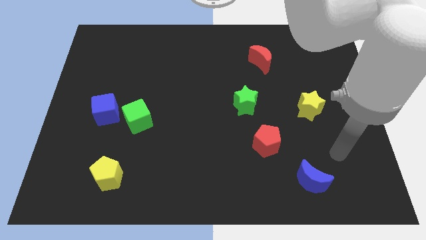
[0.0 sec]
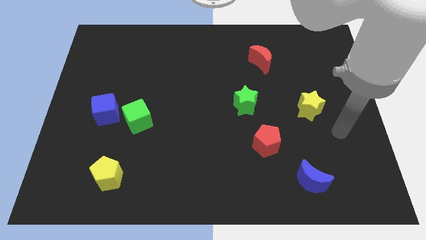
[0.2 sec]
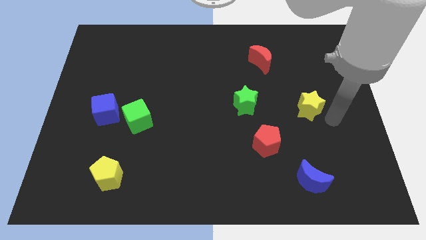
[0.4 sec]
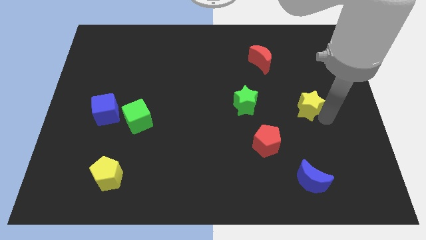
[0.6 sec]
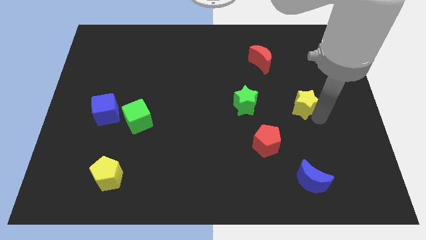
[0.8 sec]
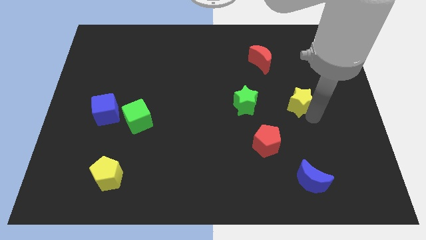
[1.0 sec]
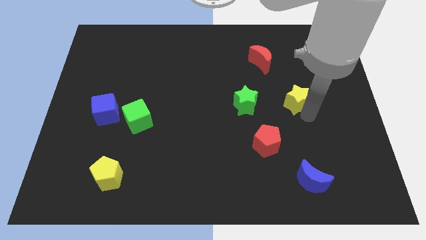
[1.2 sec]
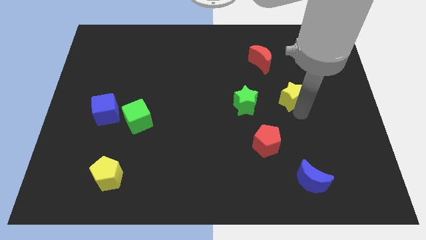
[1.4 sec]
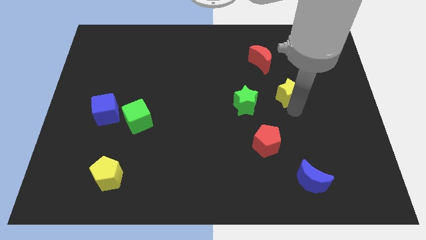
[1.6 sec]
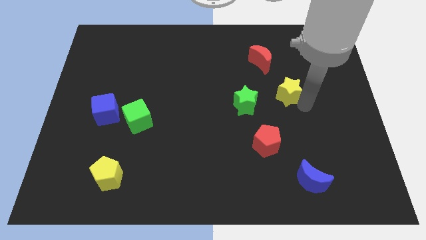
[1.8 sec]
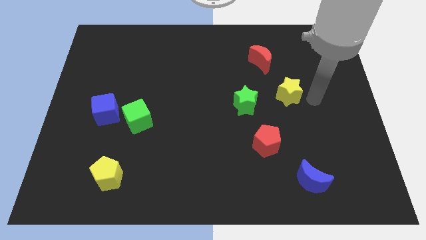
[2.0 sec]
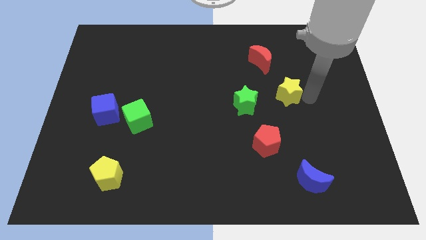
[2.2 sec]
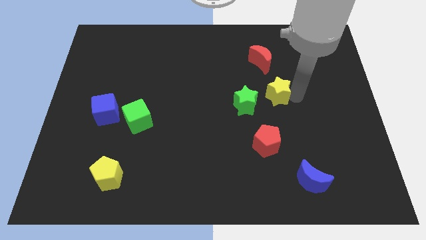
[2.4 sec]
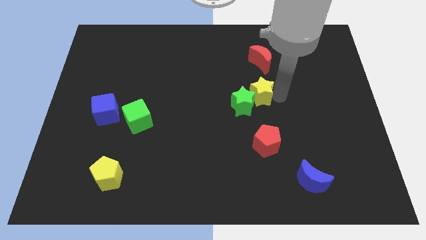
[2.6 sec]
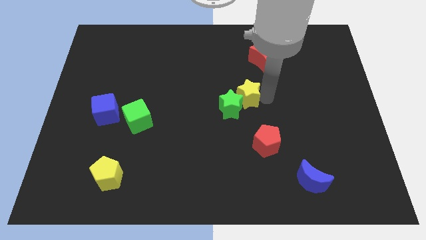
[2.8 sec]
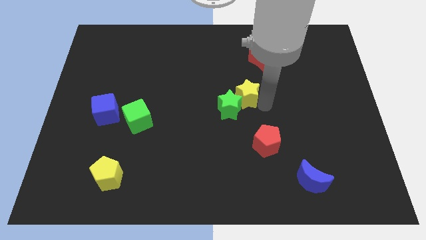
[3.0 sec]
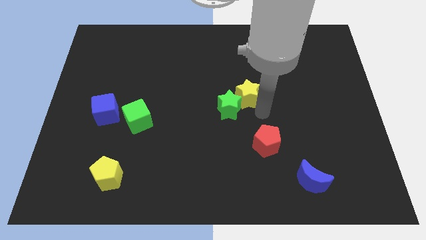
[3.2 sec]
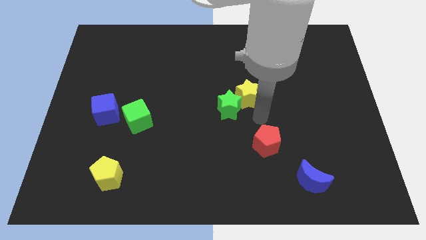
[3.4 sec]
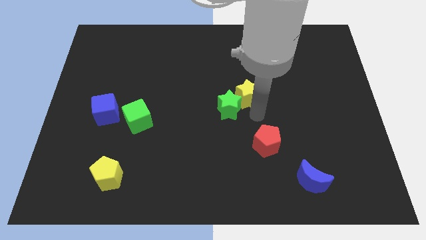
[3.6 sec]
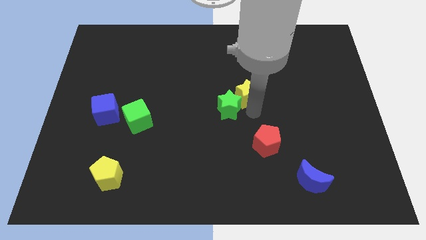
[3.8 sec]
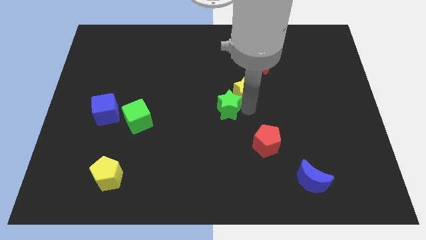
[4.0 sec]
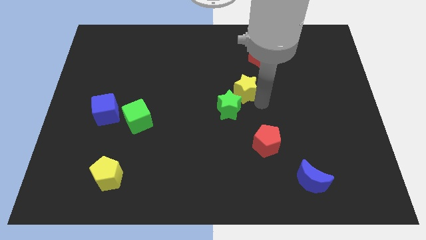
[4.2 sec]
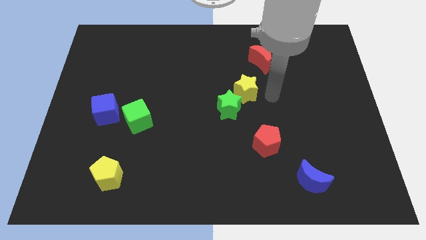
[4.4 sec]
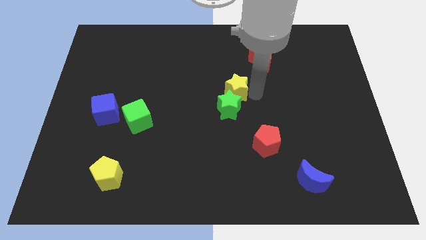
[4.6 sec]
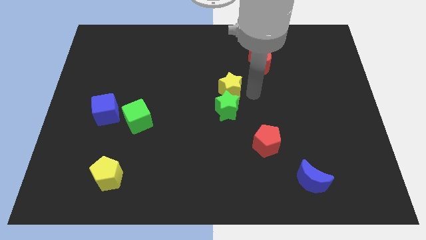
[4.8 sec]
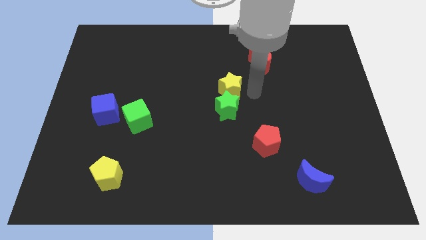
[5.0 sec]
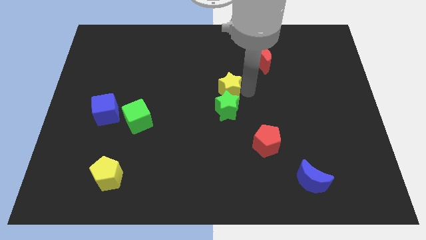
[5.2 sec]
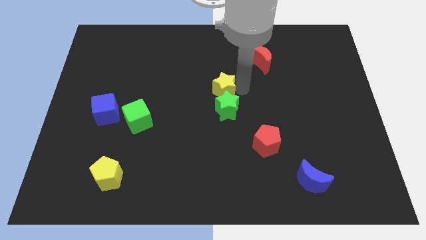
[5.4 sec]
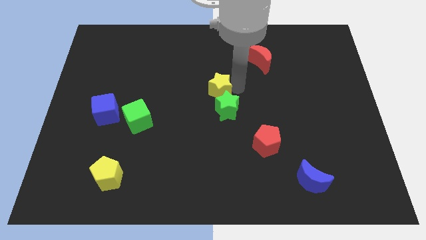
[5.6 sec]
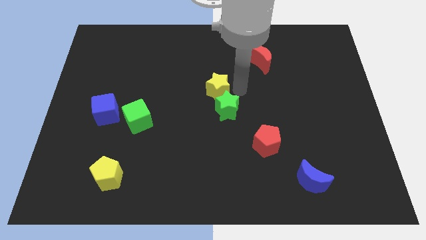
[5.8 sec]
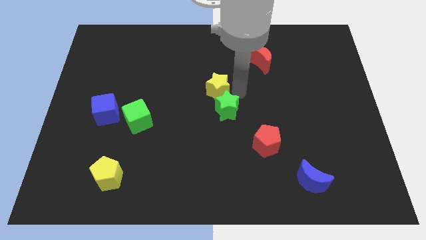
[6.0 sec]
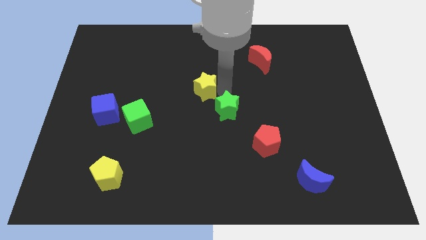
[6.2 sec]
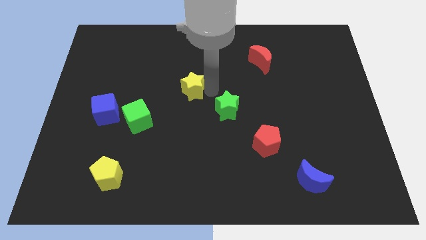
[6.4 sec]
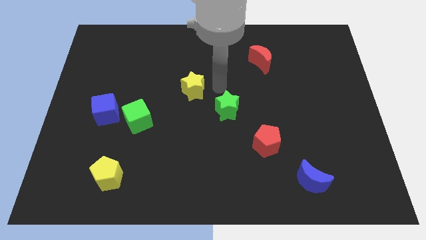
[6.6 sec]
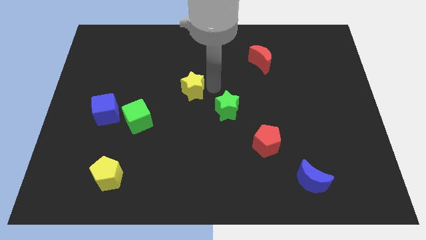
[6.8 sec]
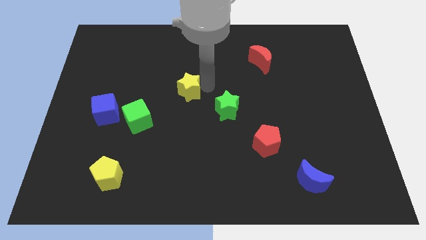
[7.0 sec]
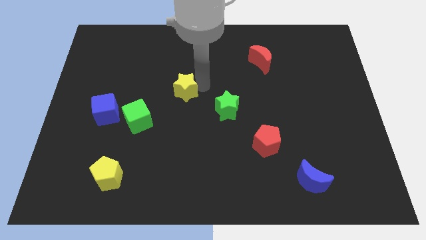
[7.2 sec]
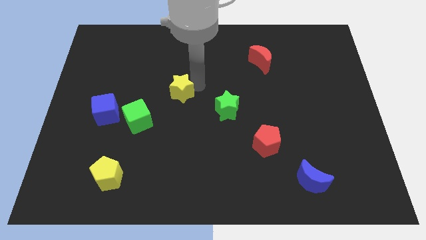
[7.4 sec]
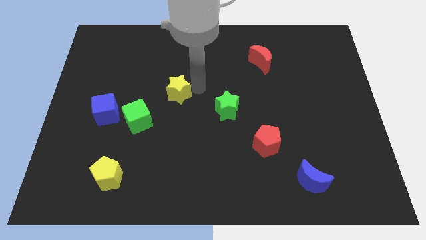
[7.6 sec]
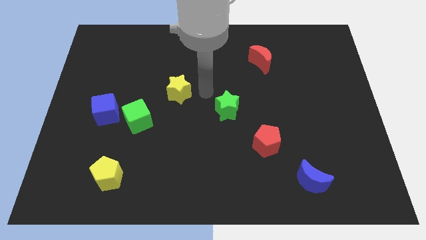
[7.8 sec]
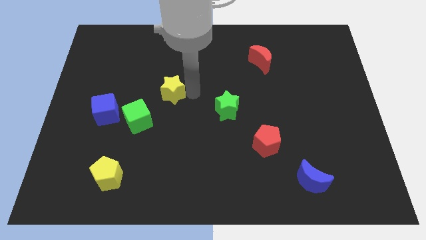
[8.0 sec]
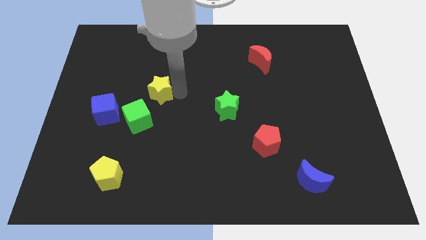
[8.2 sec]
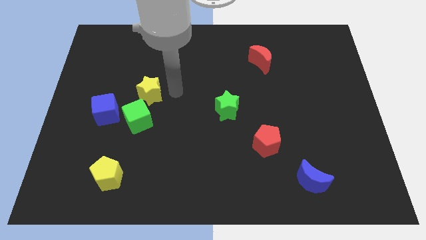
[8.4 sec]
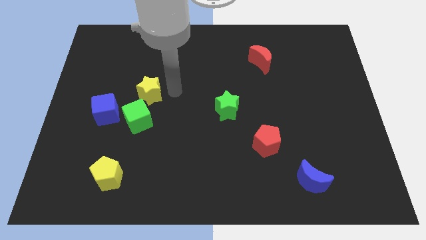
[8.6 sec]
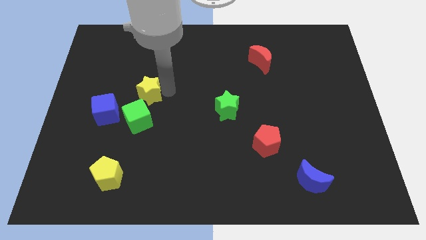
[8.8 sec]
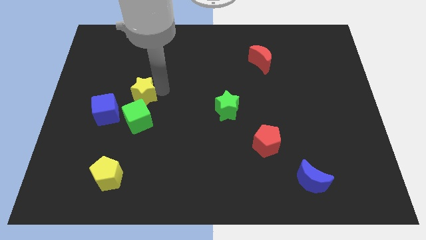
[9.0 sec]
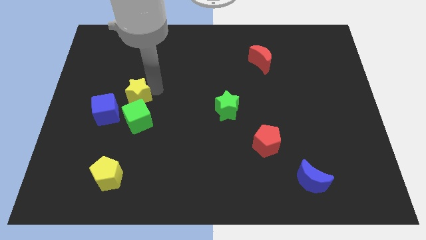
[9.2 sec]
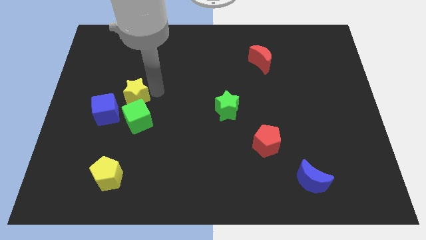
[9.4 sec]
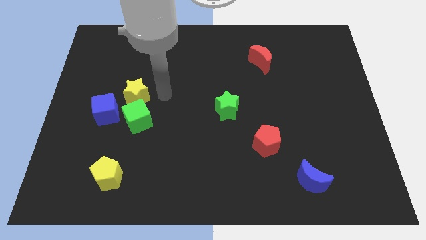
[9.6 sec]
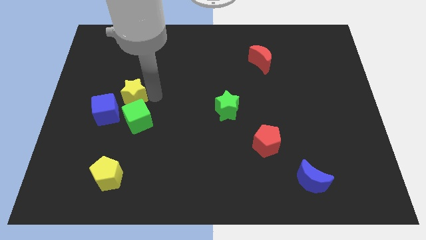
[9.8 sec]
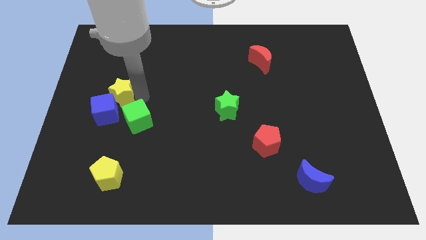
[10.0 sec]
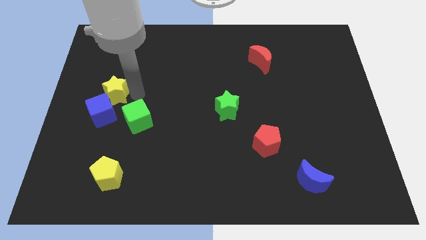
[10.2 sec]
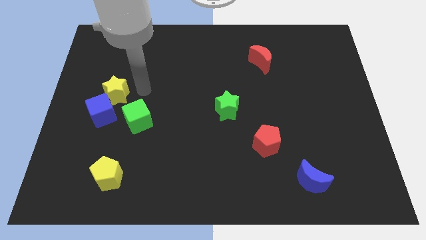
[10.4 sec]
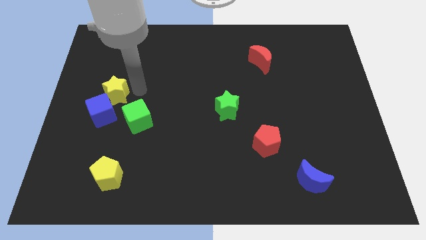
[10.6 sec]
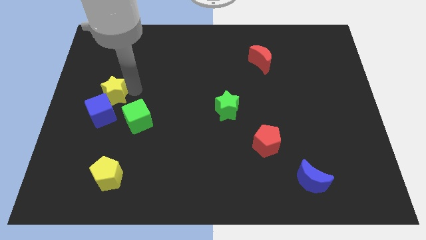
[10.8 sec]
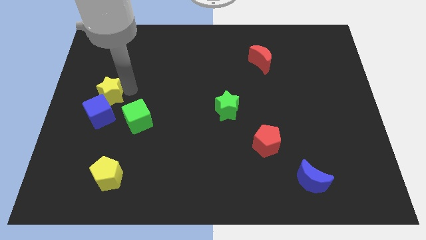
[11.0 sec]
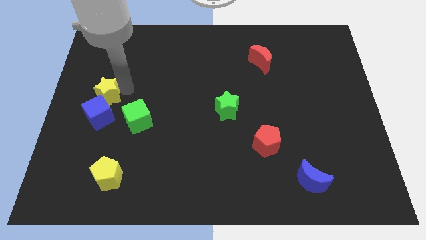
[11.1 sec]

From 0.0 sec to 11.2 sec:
move the yellow star to the left side
